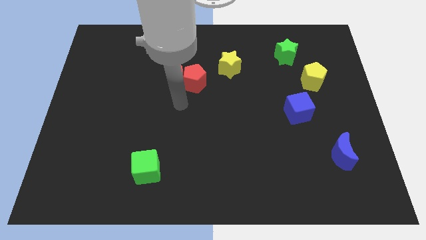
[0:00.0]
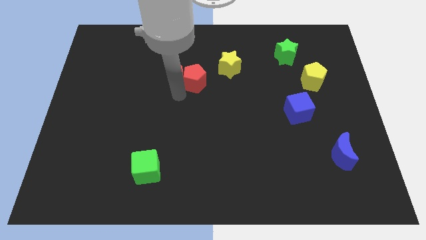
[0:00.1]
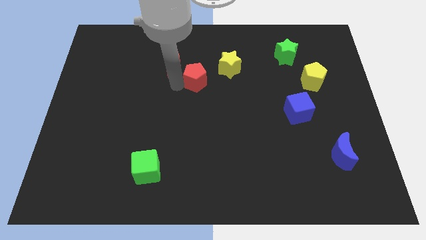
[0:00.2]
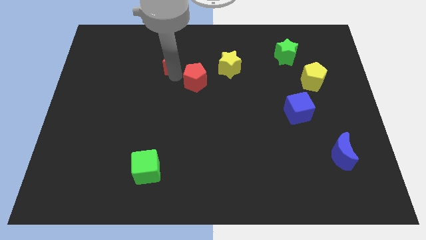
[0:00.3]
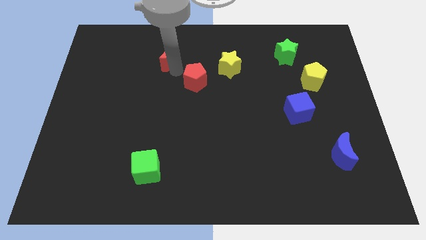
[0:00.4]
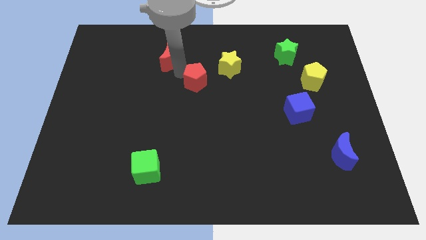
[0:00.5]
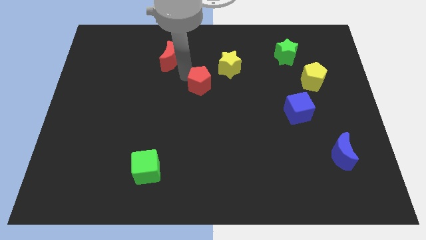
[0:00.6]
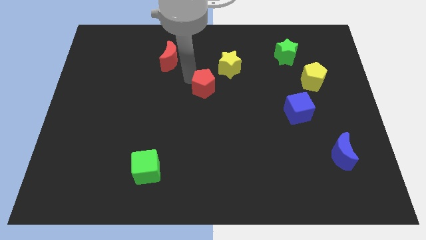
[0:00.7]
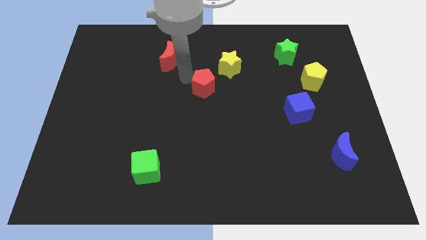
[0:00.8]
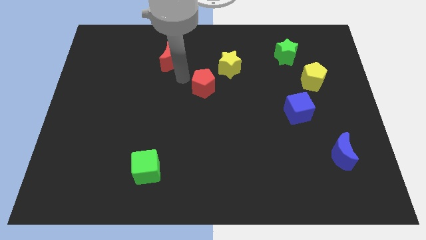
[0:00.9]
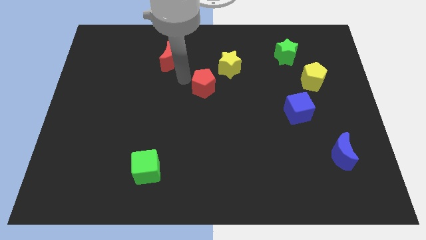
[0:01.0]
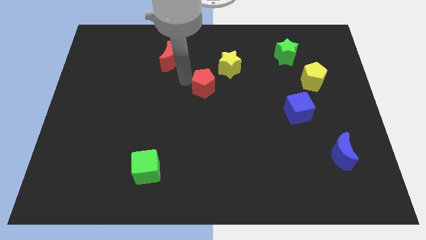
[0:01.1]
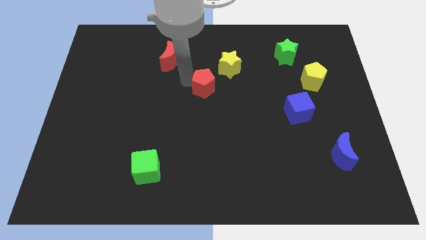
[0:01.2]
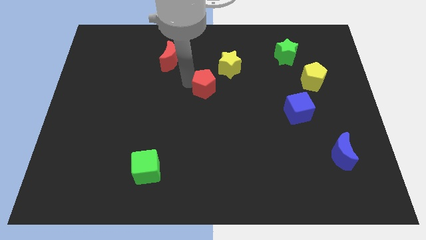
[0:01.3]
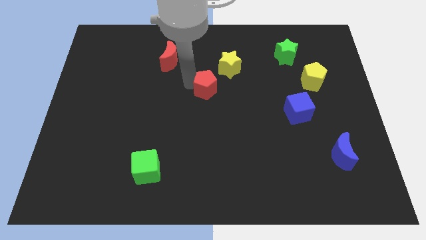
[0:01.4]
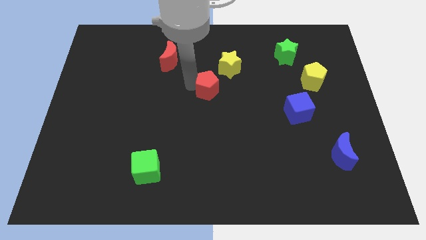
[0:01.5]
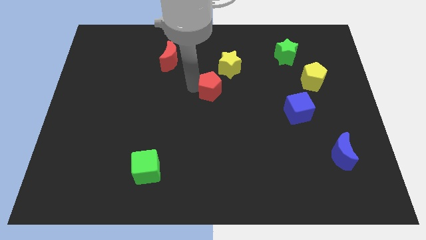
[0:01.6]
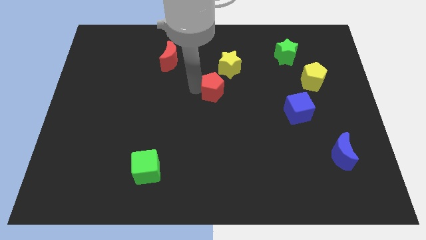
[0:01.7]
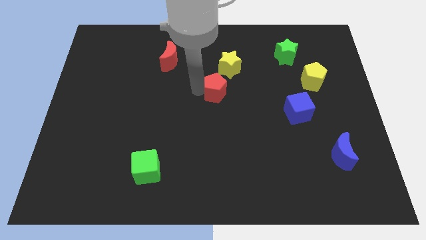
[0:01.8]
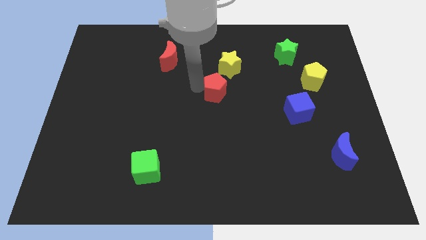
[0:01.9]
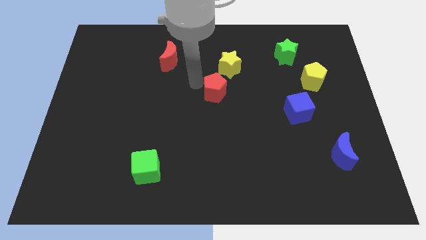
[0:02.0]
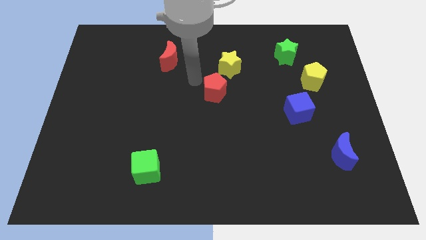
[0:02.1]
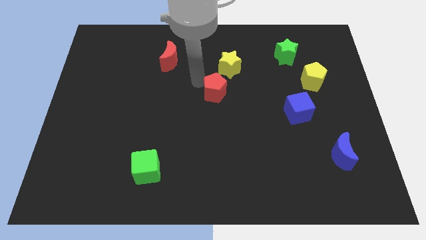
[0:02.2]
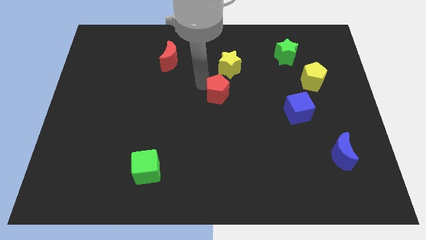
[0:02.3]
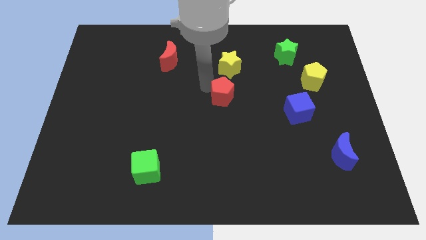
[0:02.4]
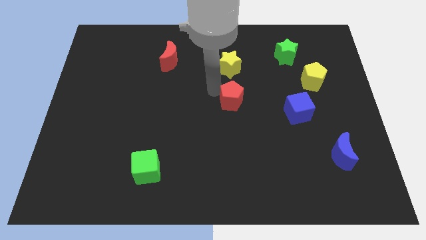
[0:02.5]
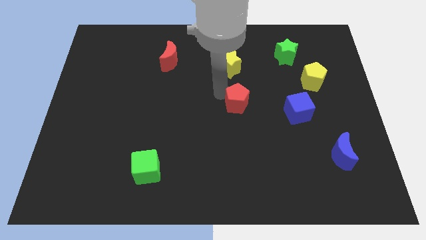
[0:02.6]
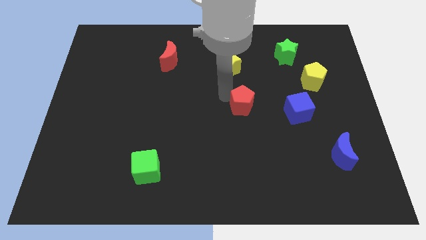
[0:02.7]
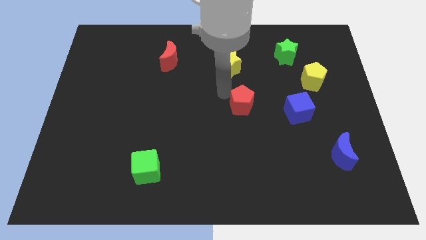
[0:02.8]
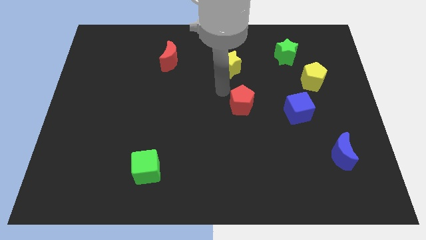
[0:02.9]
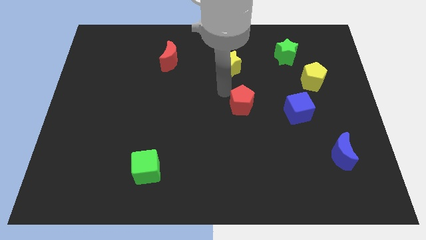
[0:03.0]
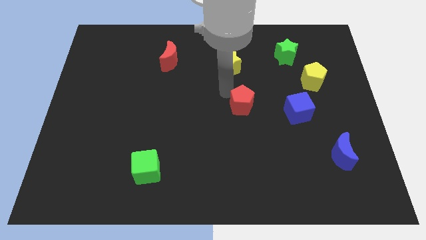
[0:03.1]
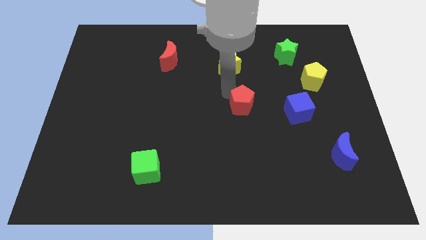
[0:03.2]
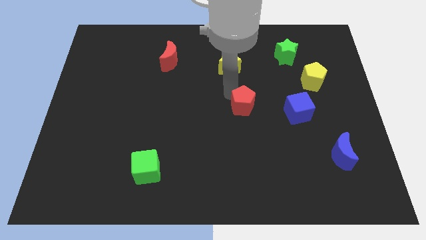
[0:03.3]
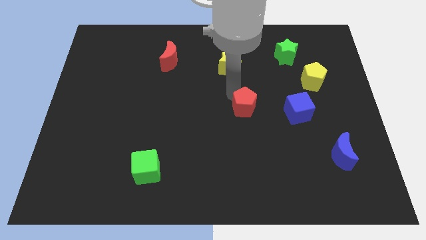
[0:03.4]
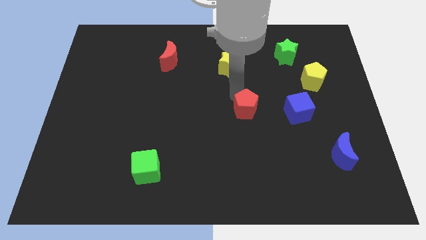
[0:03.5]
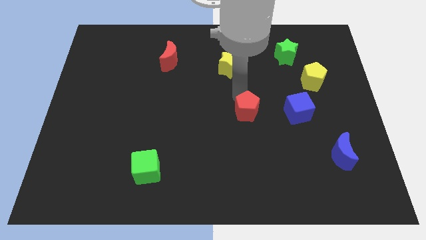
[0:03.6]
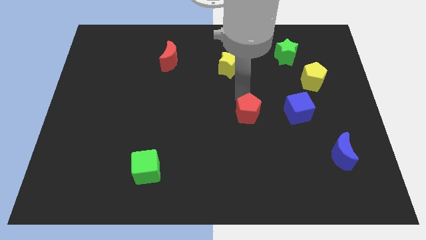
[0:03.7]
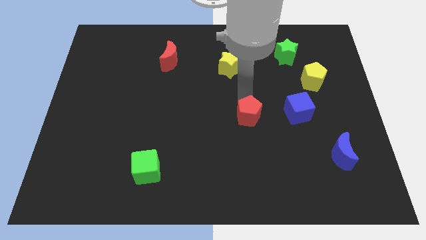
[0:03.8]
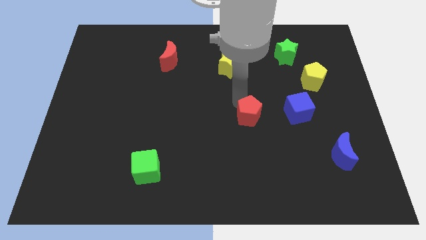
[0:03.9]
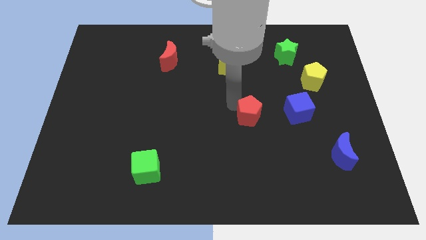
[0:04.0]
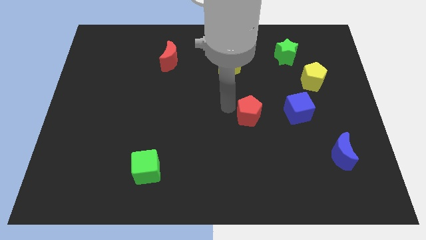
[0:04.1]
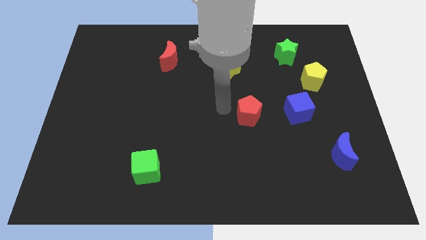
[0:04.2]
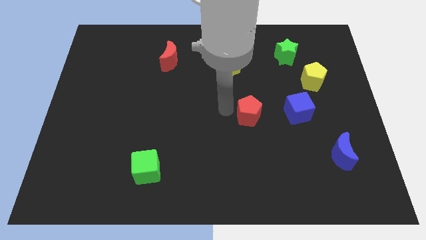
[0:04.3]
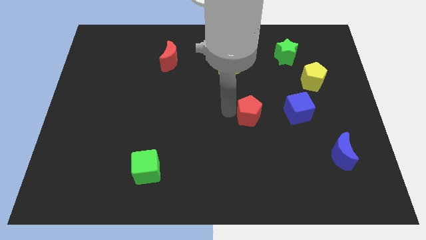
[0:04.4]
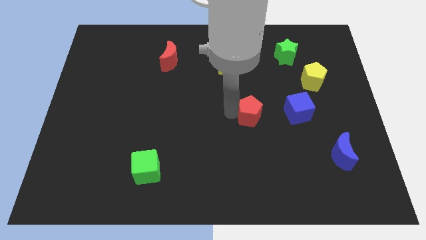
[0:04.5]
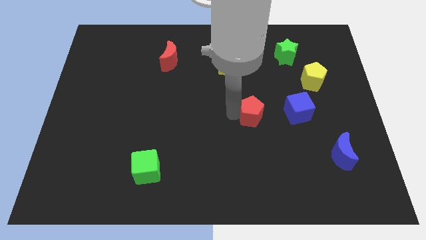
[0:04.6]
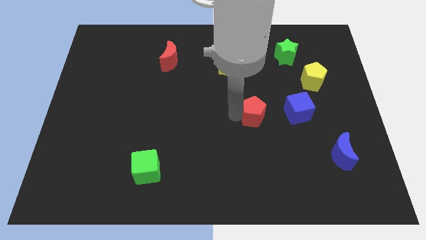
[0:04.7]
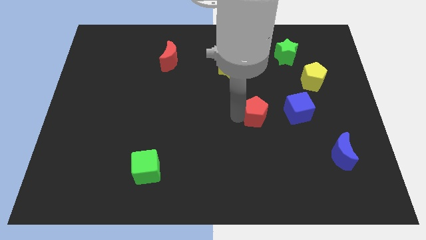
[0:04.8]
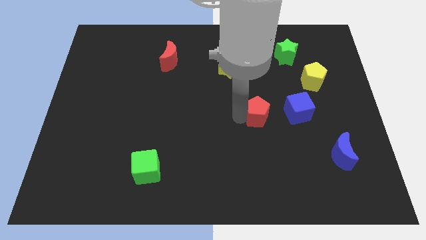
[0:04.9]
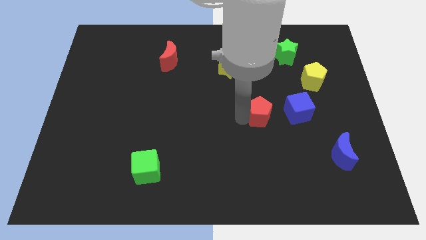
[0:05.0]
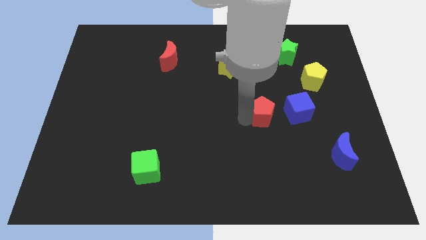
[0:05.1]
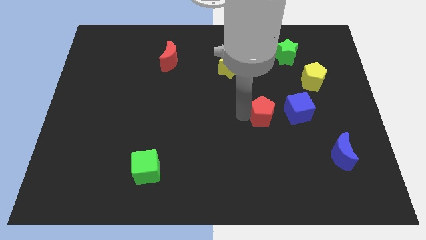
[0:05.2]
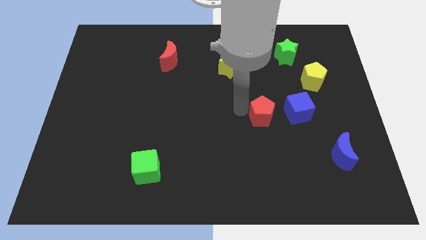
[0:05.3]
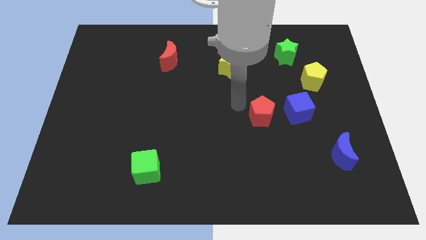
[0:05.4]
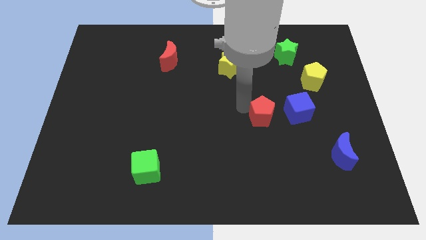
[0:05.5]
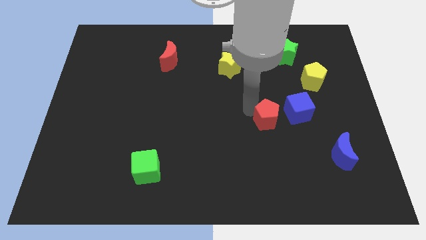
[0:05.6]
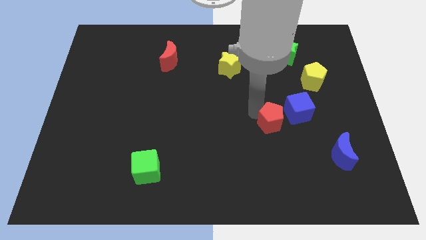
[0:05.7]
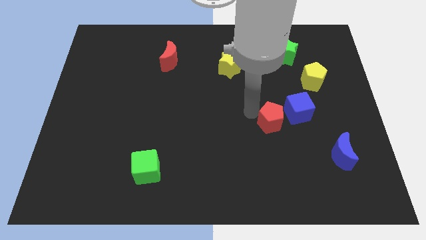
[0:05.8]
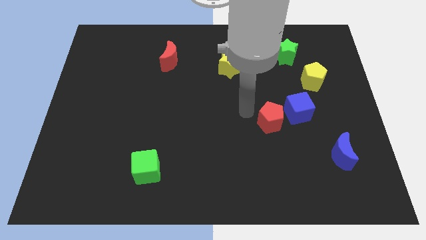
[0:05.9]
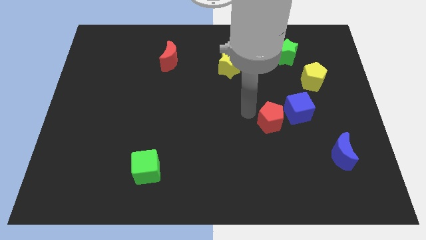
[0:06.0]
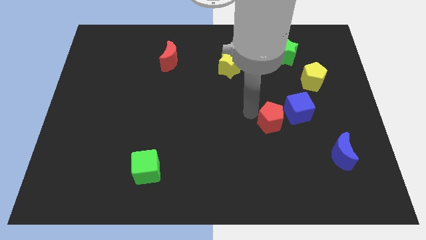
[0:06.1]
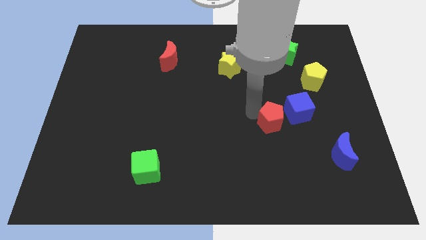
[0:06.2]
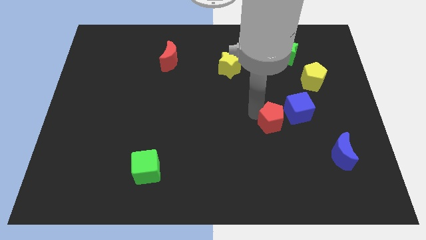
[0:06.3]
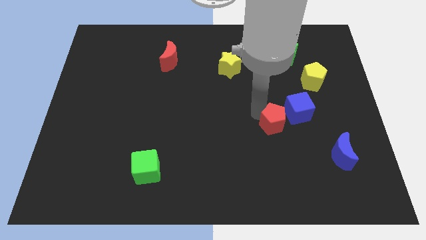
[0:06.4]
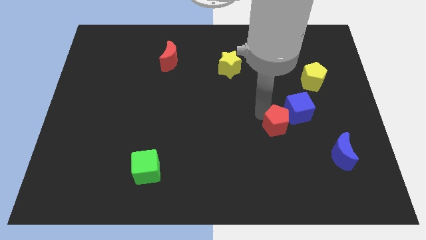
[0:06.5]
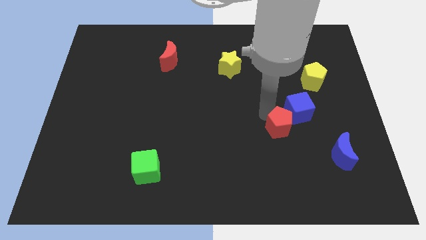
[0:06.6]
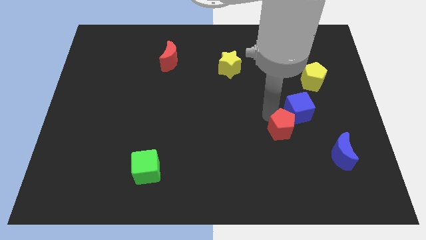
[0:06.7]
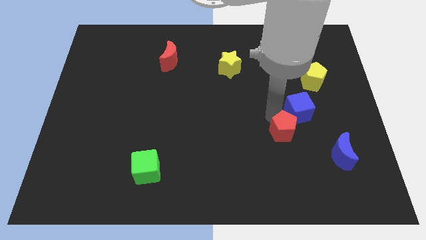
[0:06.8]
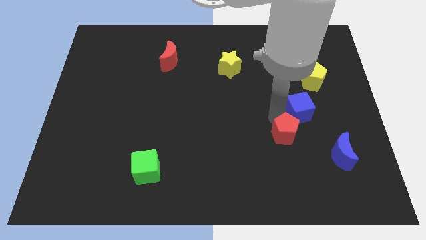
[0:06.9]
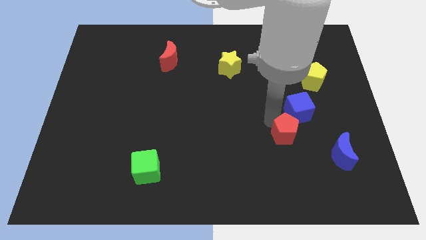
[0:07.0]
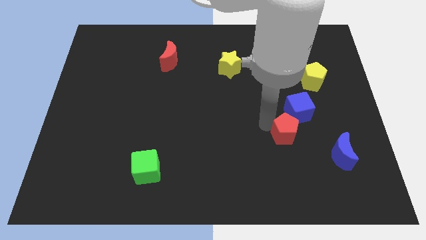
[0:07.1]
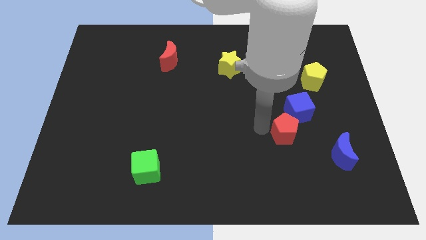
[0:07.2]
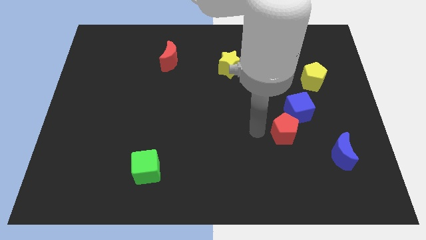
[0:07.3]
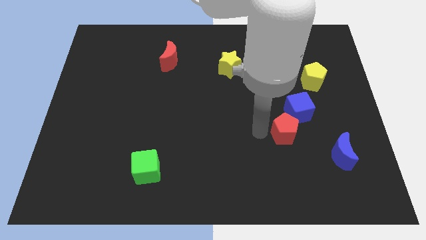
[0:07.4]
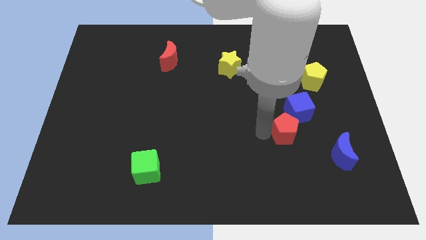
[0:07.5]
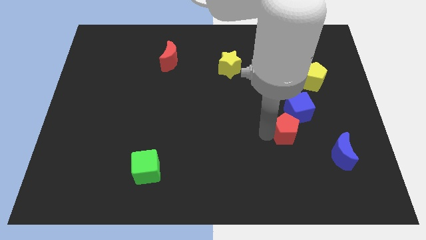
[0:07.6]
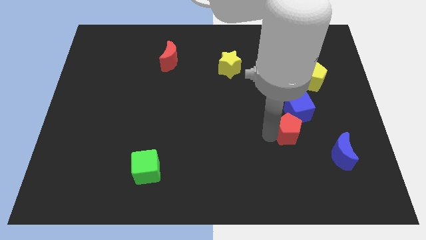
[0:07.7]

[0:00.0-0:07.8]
push the red pentagon to the top left of the blue moon
